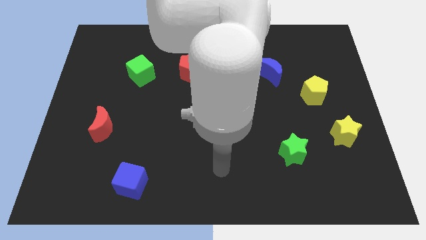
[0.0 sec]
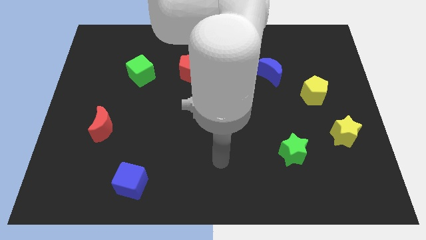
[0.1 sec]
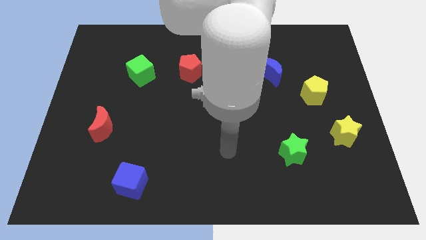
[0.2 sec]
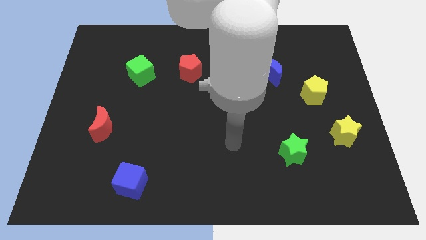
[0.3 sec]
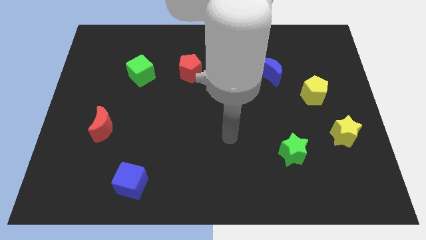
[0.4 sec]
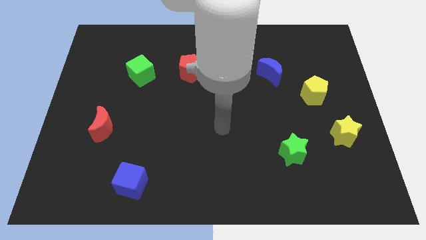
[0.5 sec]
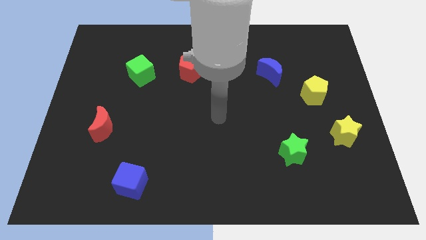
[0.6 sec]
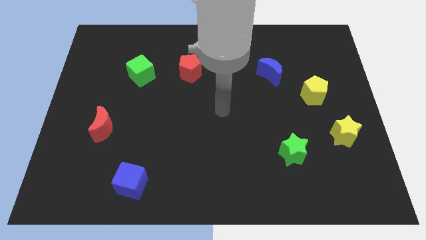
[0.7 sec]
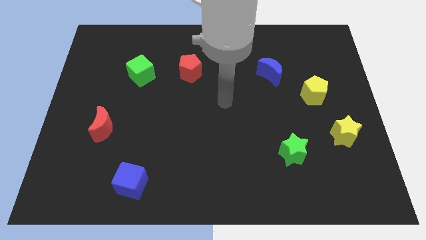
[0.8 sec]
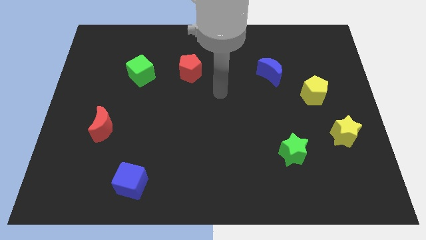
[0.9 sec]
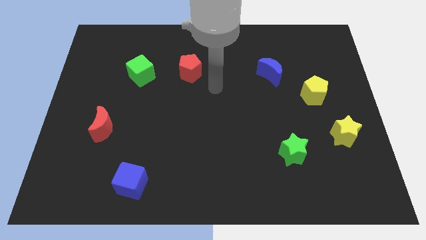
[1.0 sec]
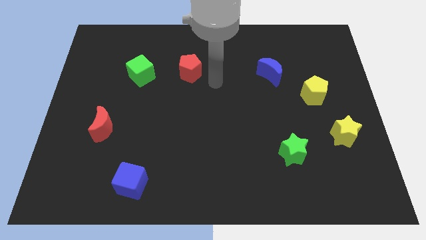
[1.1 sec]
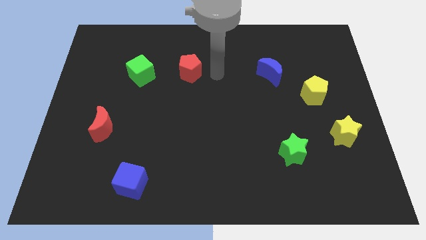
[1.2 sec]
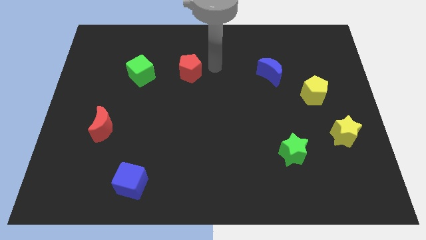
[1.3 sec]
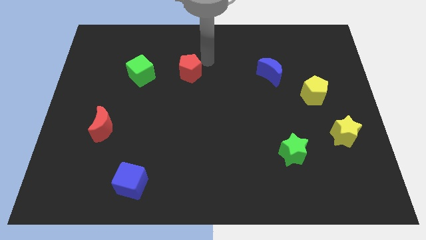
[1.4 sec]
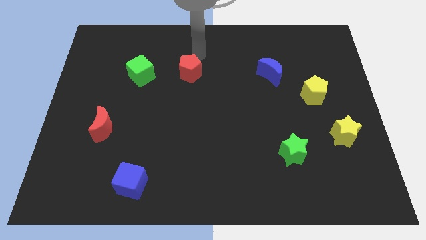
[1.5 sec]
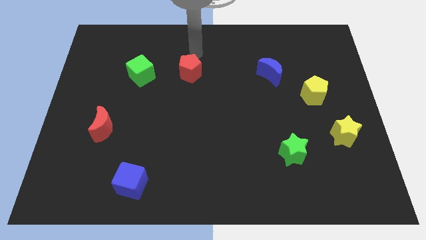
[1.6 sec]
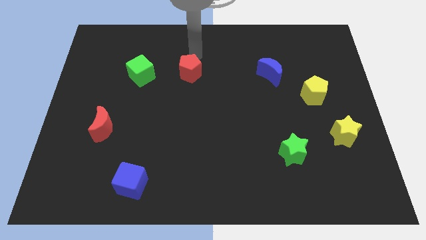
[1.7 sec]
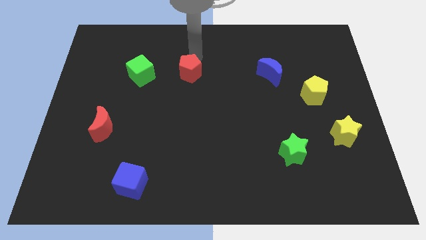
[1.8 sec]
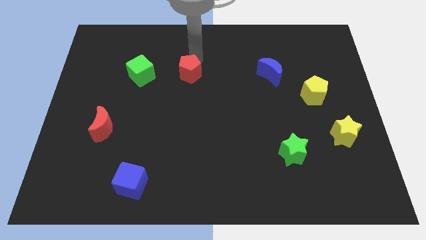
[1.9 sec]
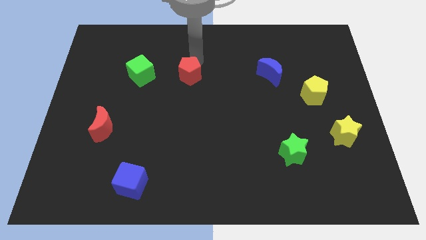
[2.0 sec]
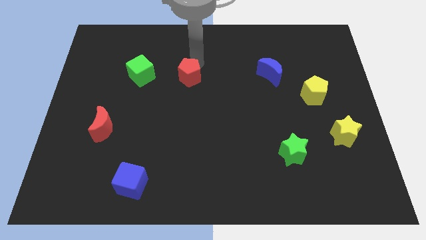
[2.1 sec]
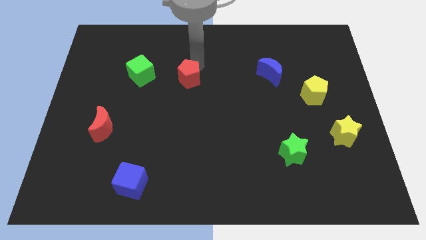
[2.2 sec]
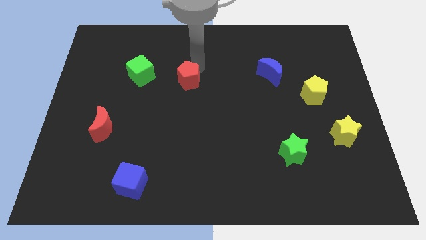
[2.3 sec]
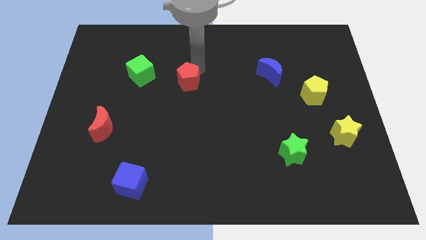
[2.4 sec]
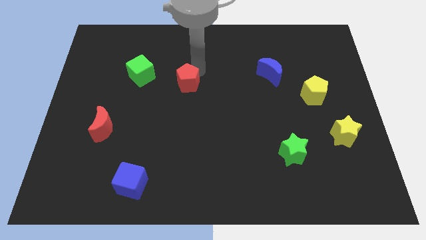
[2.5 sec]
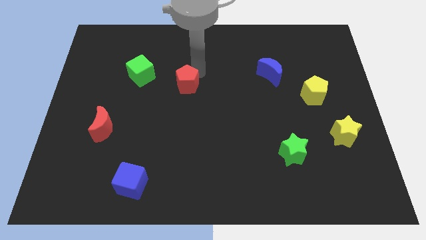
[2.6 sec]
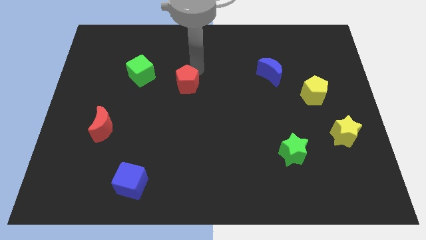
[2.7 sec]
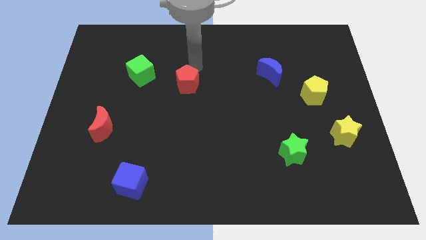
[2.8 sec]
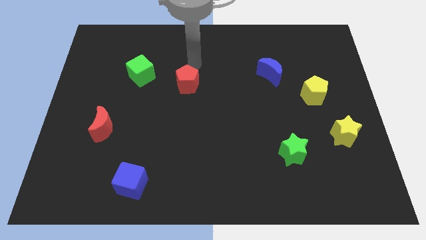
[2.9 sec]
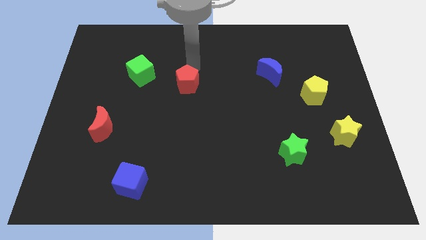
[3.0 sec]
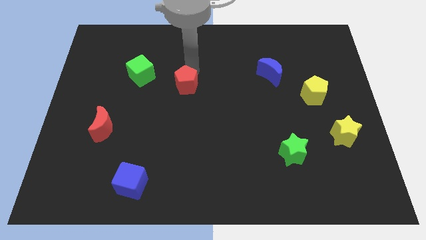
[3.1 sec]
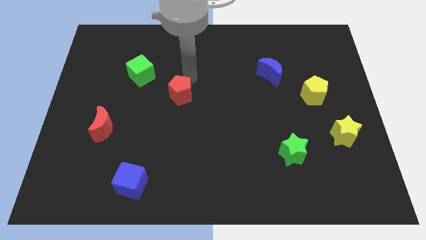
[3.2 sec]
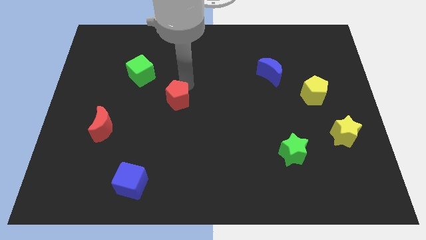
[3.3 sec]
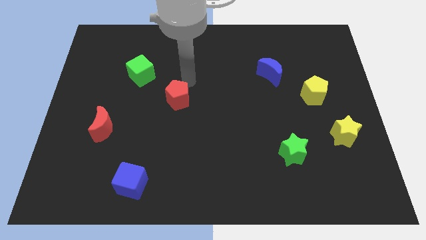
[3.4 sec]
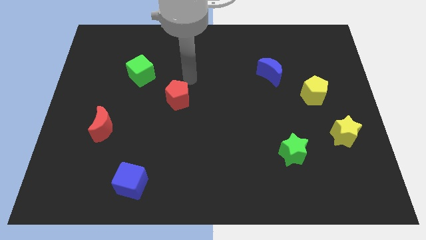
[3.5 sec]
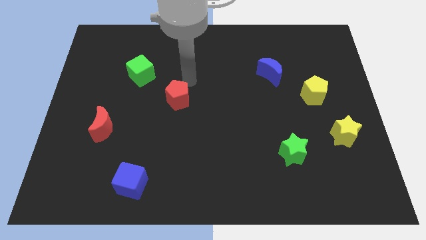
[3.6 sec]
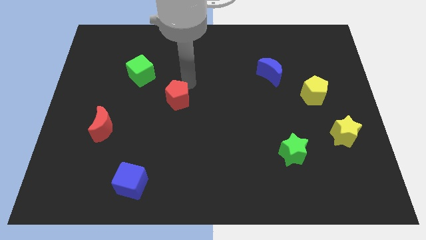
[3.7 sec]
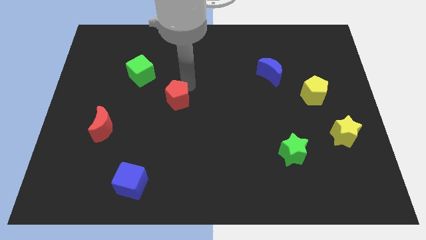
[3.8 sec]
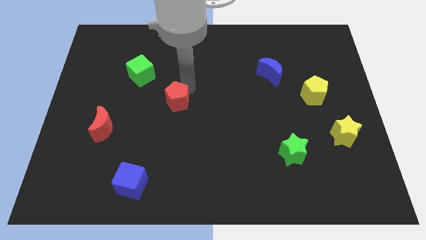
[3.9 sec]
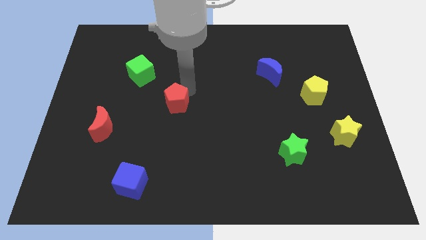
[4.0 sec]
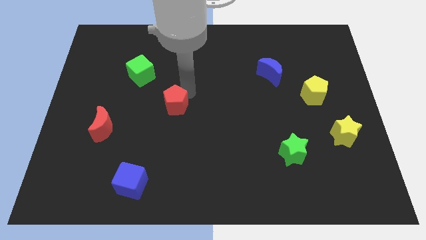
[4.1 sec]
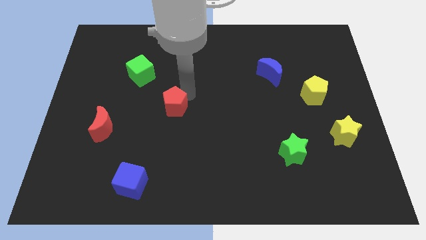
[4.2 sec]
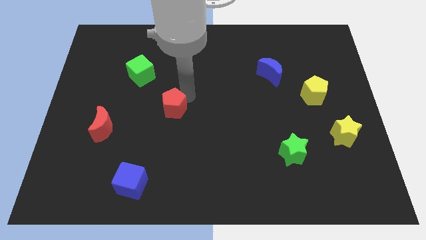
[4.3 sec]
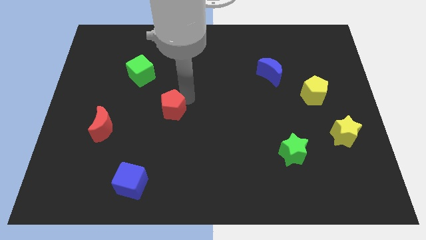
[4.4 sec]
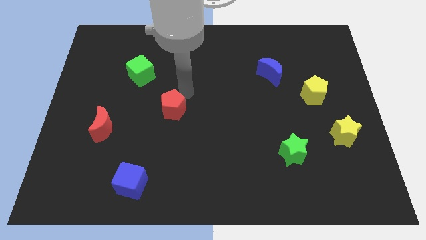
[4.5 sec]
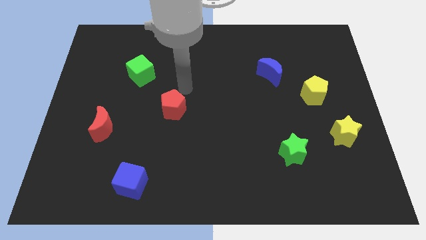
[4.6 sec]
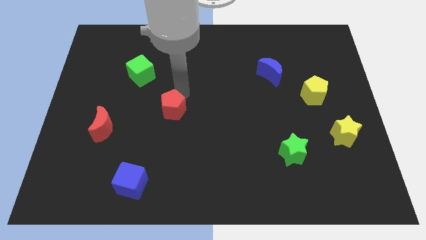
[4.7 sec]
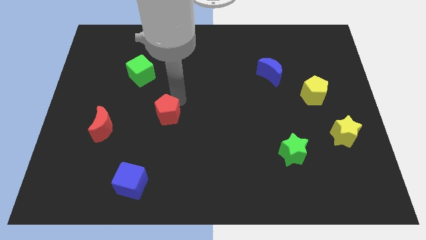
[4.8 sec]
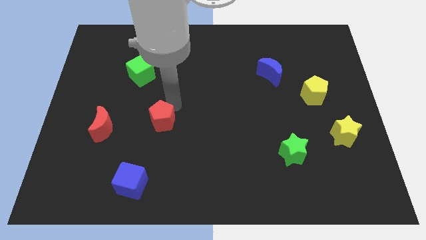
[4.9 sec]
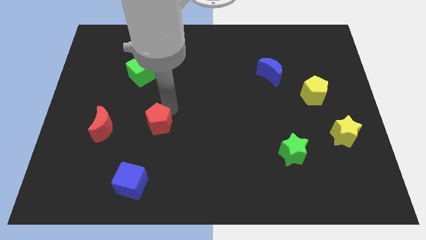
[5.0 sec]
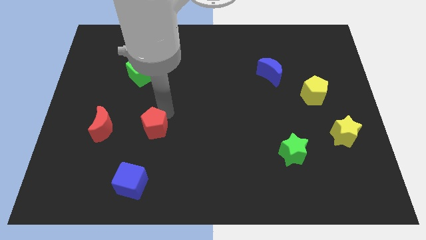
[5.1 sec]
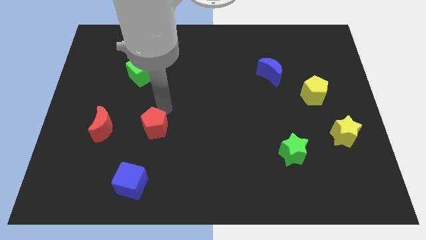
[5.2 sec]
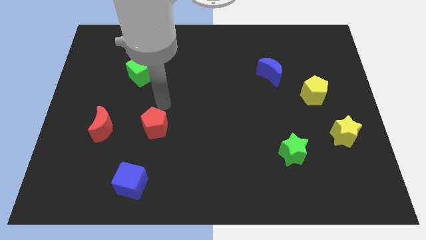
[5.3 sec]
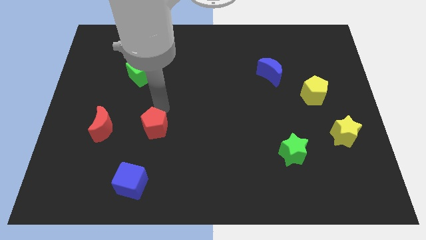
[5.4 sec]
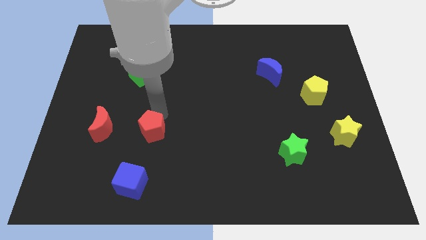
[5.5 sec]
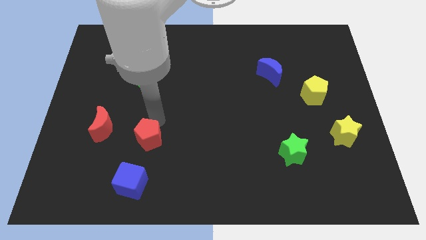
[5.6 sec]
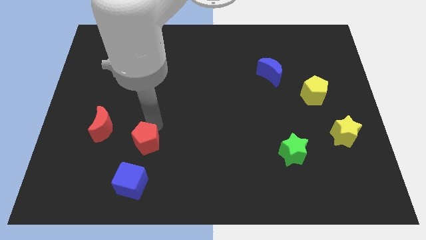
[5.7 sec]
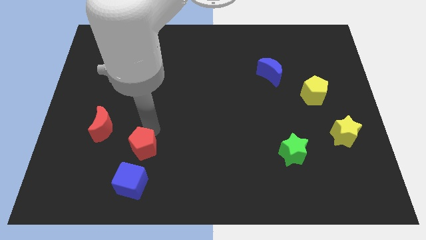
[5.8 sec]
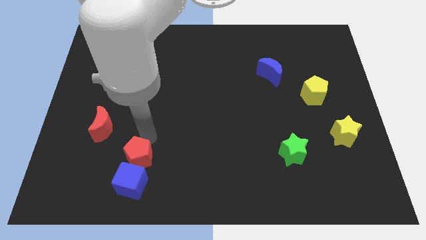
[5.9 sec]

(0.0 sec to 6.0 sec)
push the red pentagon to the blue cube

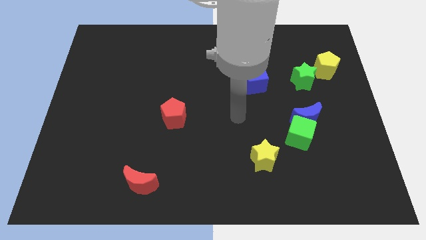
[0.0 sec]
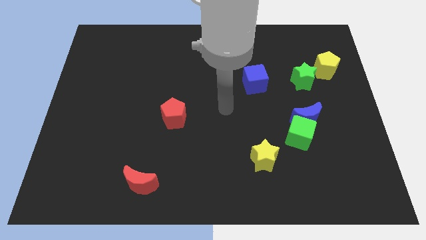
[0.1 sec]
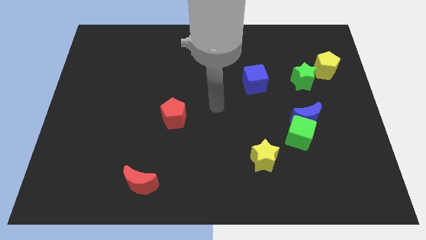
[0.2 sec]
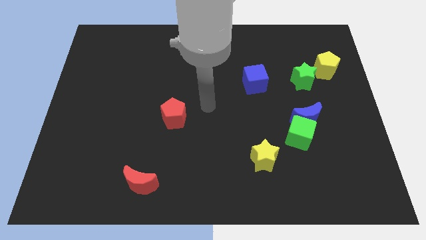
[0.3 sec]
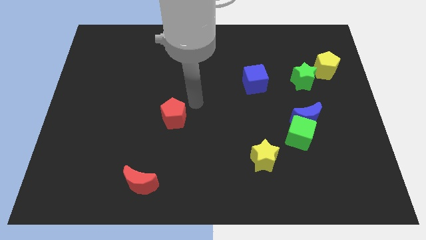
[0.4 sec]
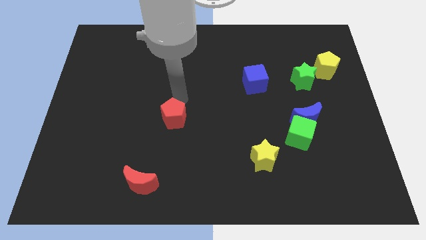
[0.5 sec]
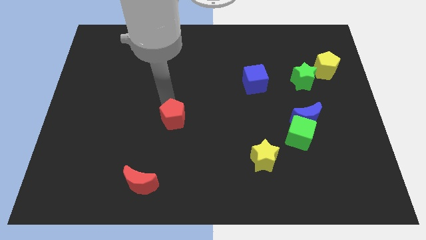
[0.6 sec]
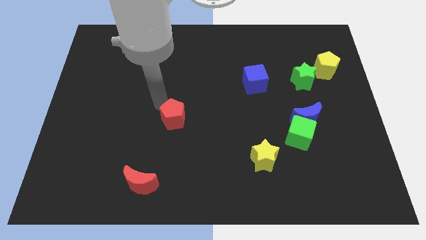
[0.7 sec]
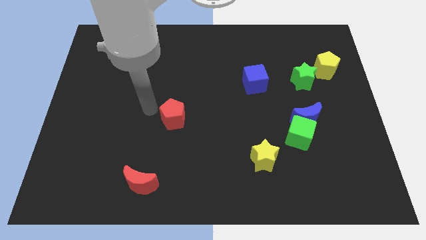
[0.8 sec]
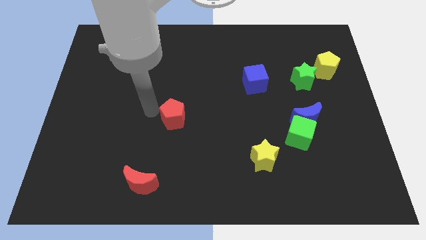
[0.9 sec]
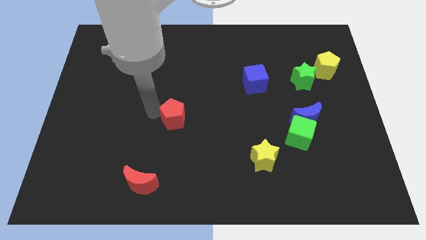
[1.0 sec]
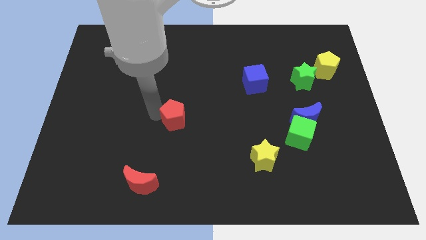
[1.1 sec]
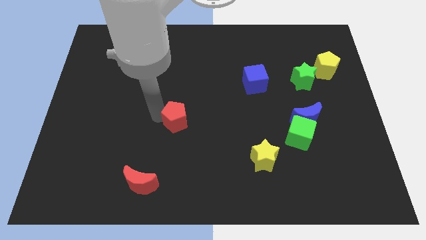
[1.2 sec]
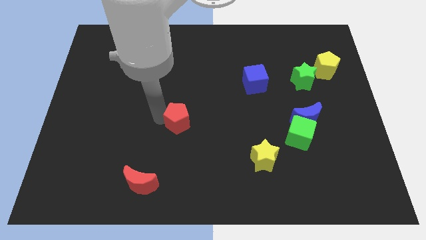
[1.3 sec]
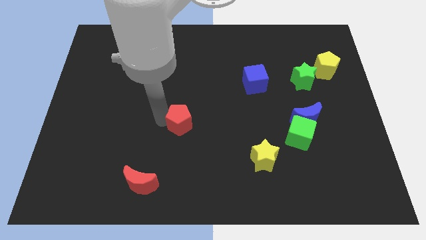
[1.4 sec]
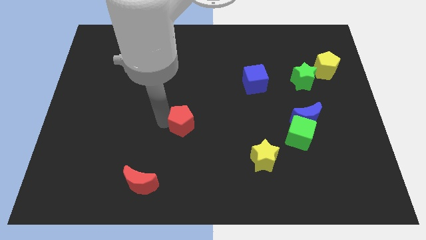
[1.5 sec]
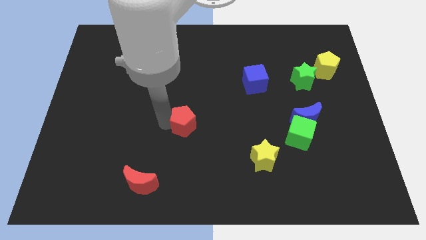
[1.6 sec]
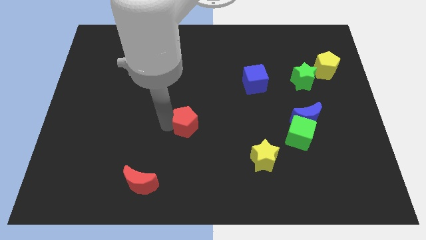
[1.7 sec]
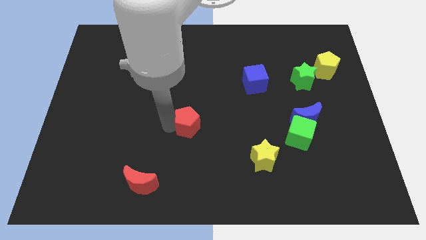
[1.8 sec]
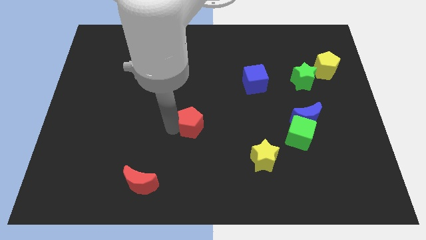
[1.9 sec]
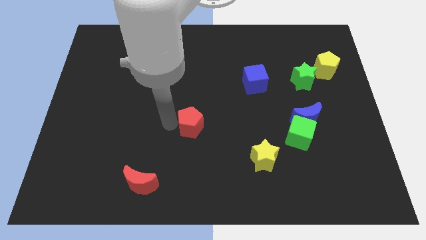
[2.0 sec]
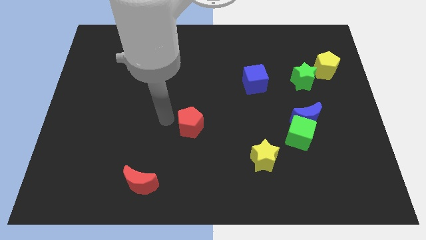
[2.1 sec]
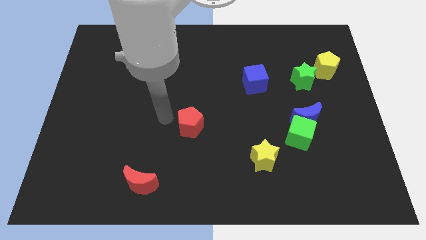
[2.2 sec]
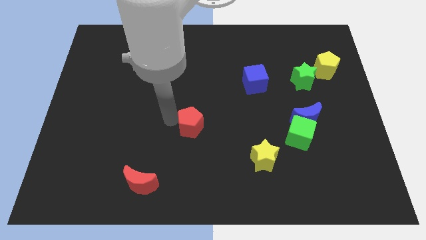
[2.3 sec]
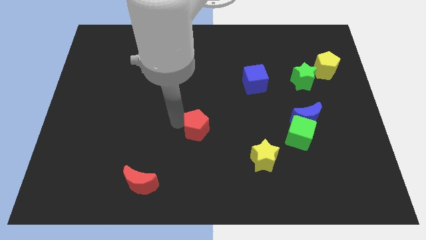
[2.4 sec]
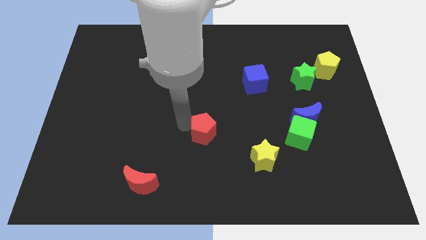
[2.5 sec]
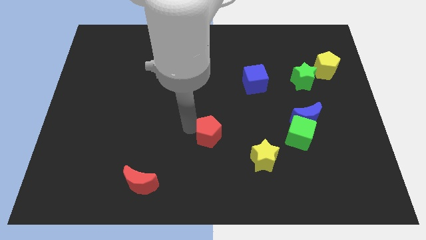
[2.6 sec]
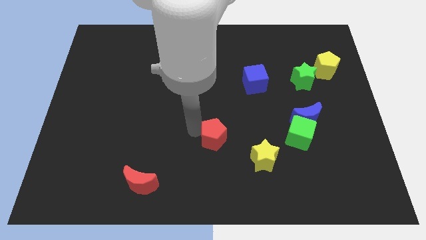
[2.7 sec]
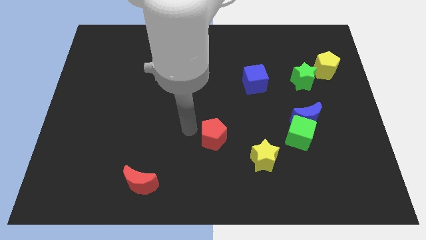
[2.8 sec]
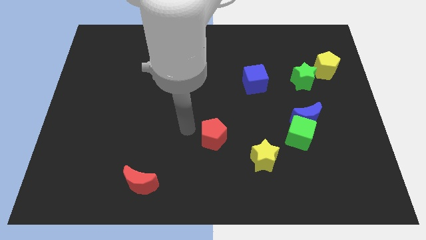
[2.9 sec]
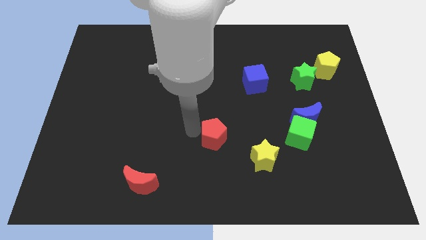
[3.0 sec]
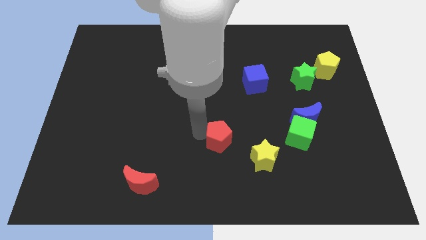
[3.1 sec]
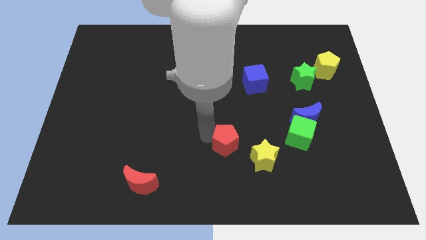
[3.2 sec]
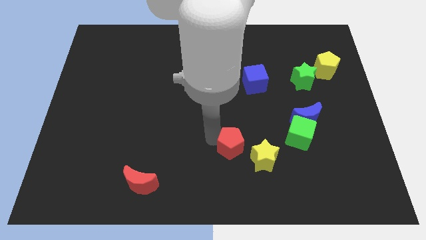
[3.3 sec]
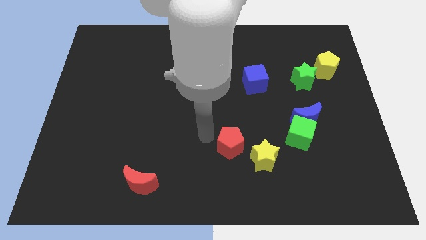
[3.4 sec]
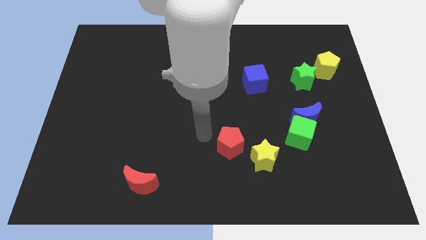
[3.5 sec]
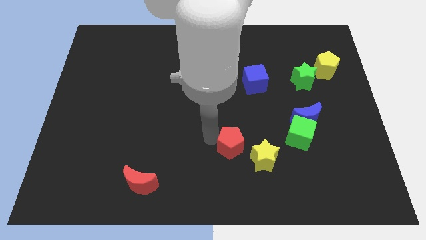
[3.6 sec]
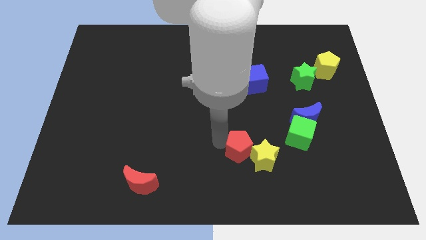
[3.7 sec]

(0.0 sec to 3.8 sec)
push the red pentagon towards the yellow star
